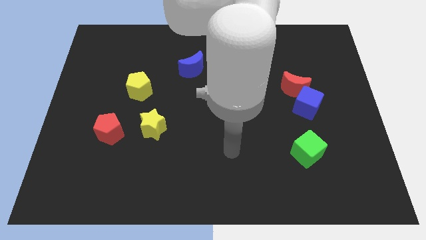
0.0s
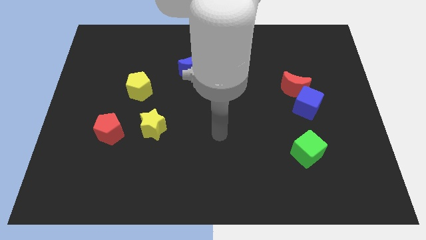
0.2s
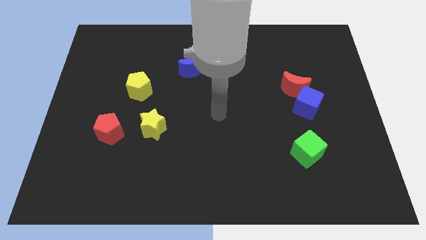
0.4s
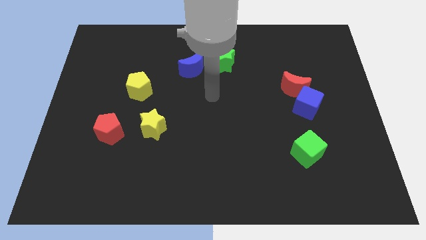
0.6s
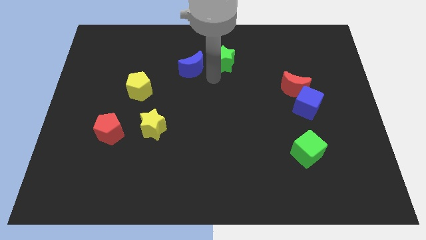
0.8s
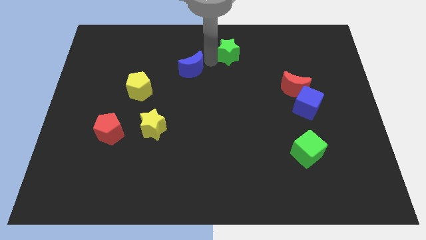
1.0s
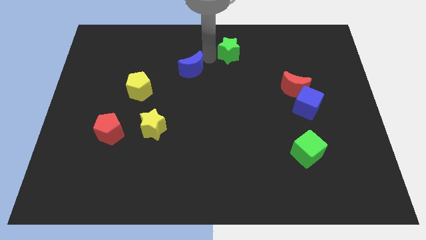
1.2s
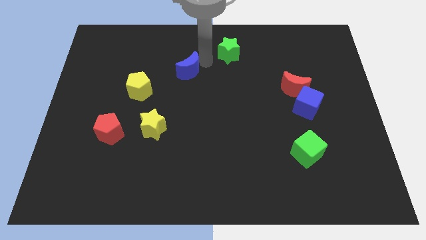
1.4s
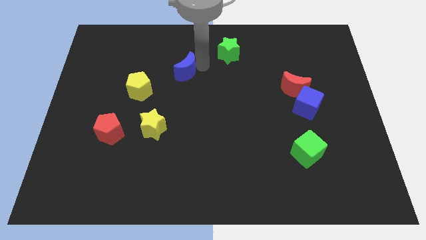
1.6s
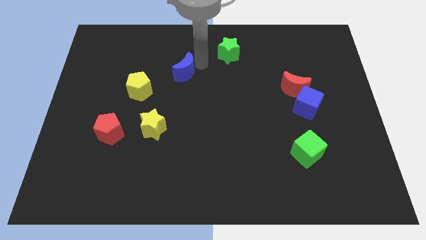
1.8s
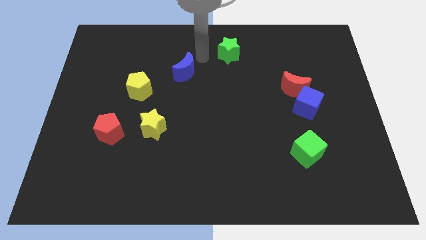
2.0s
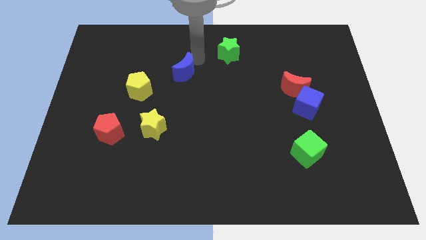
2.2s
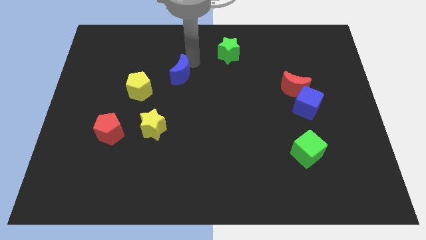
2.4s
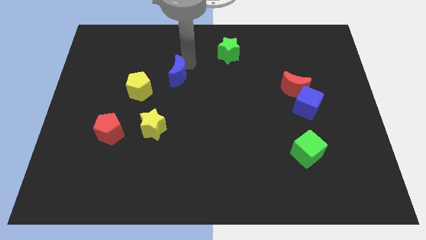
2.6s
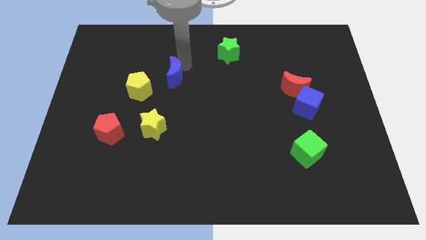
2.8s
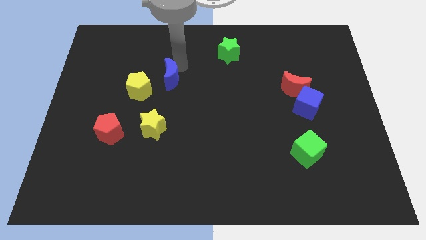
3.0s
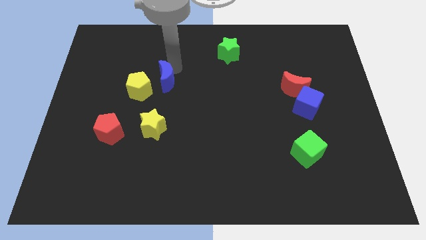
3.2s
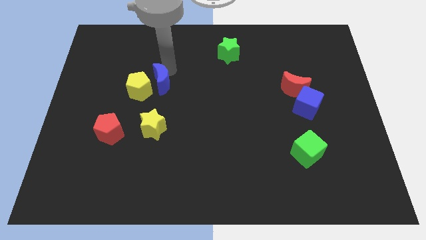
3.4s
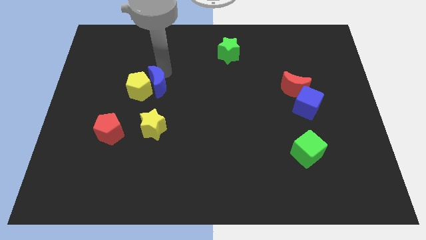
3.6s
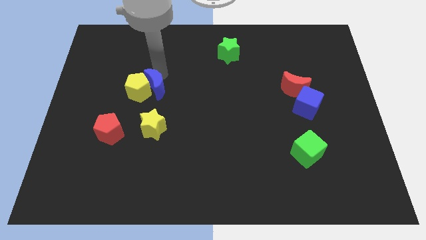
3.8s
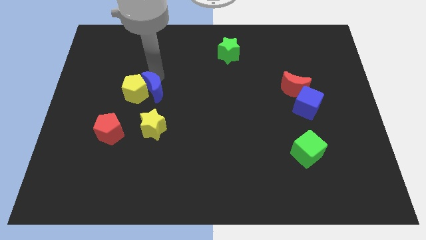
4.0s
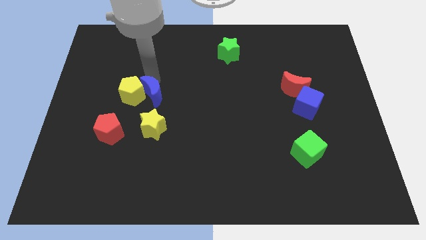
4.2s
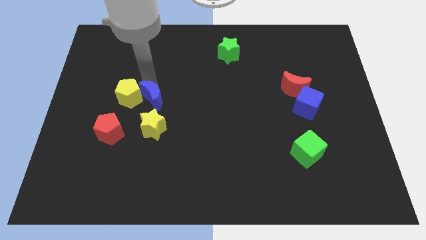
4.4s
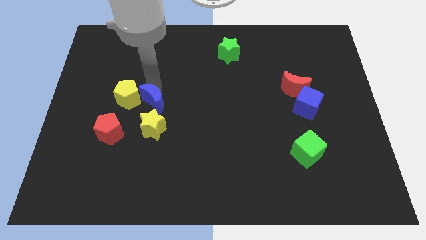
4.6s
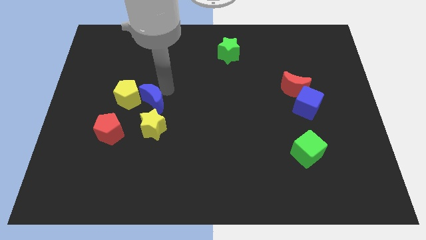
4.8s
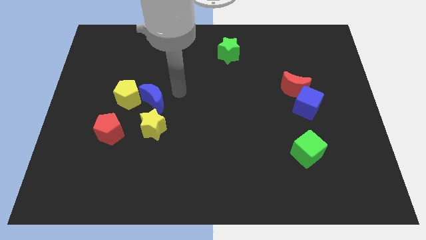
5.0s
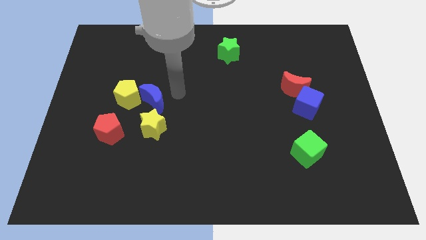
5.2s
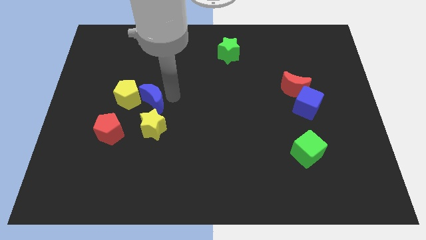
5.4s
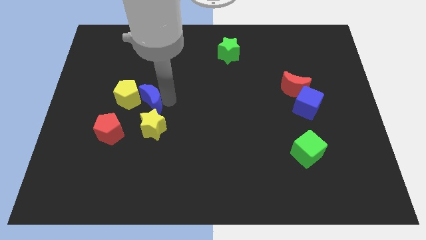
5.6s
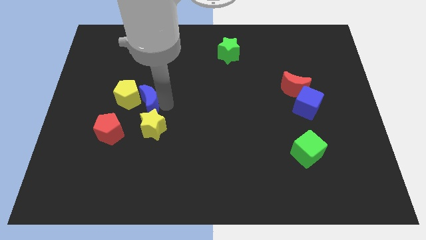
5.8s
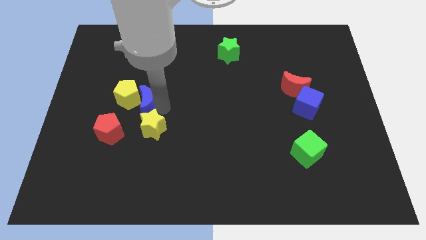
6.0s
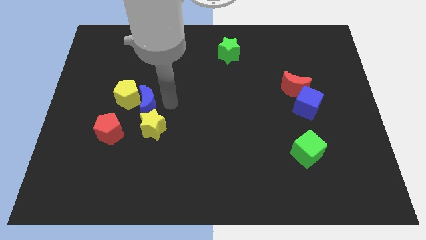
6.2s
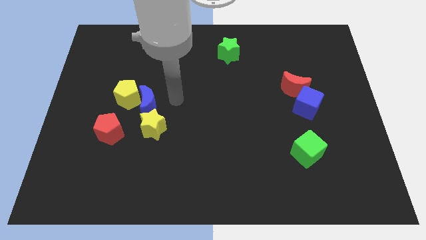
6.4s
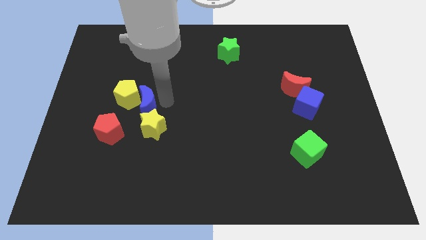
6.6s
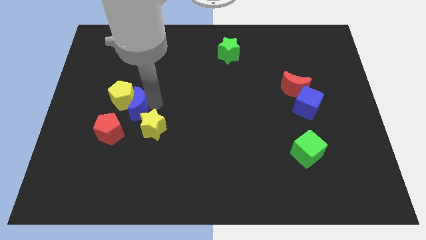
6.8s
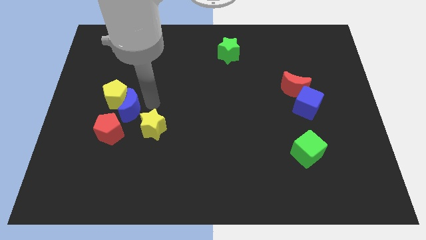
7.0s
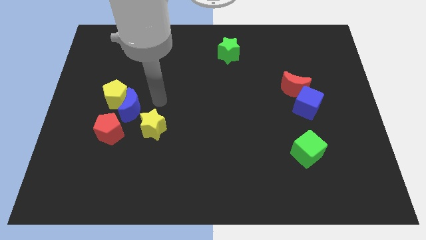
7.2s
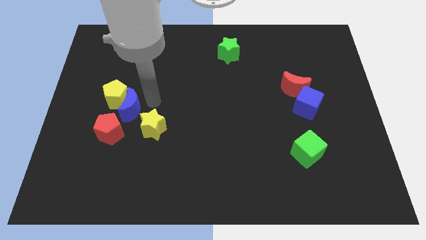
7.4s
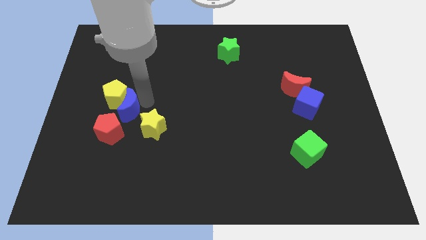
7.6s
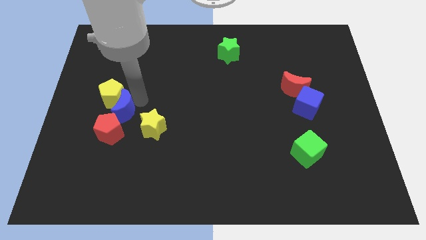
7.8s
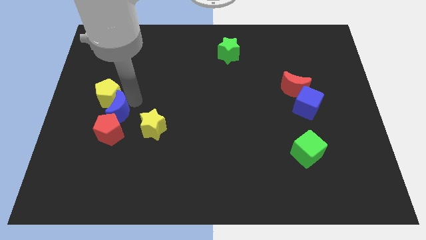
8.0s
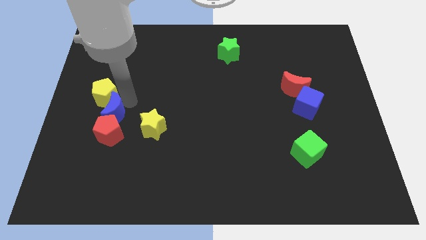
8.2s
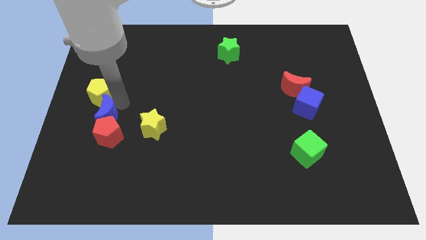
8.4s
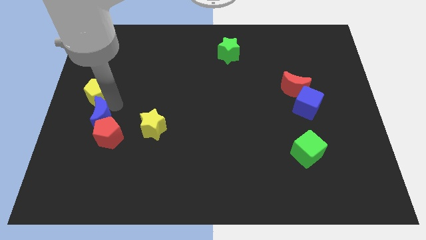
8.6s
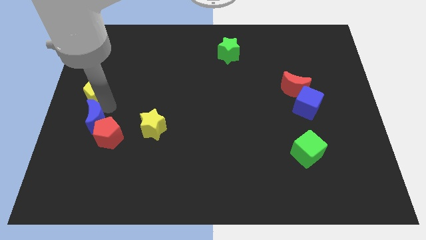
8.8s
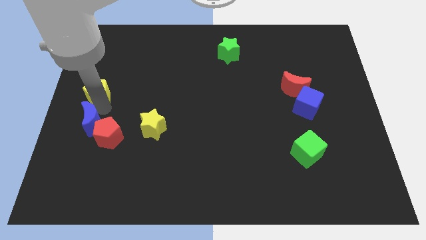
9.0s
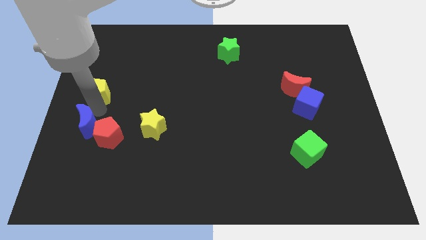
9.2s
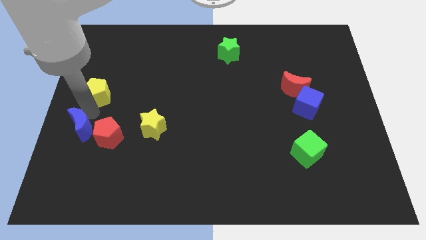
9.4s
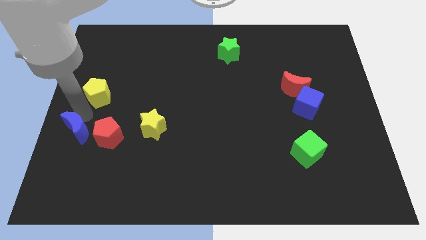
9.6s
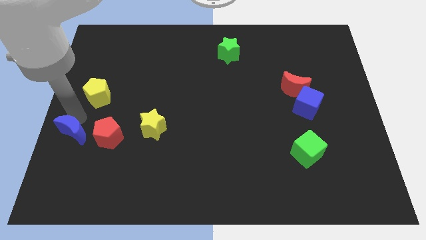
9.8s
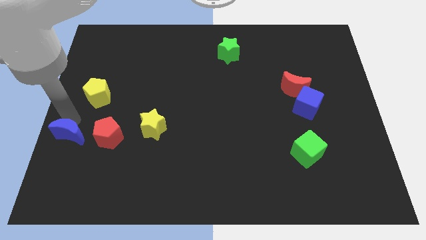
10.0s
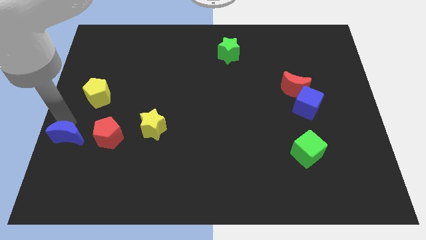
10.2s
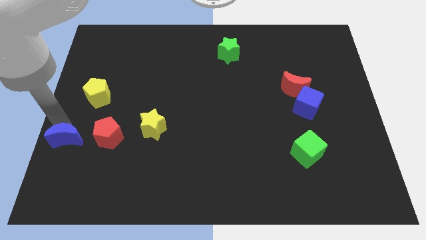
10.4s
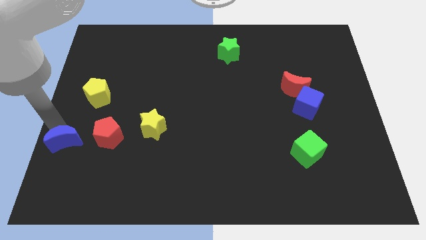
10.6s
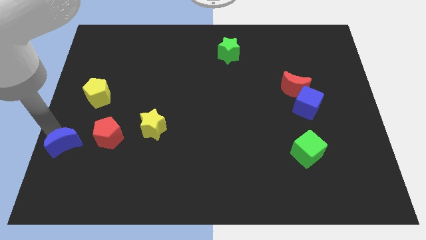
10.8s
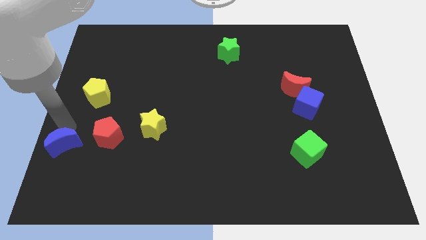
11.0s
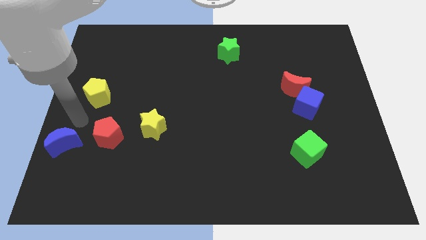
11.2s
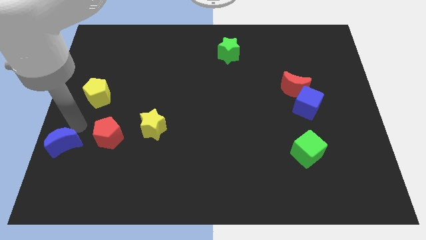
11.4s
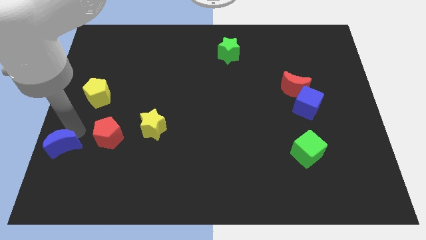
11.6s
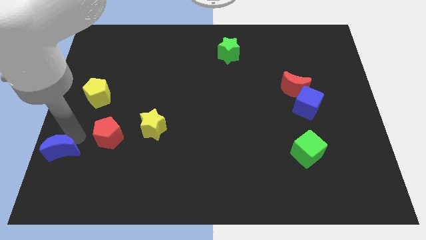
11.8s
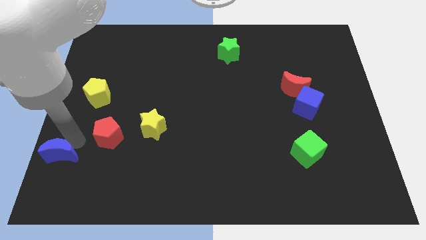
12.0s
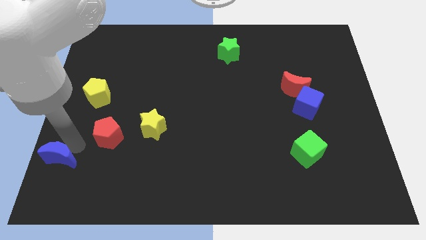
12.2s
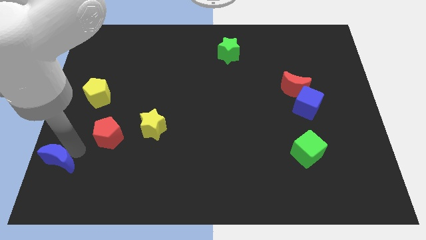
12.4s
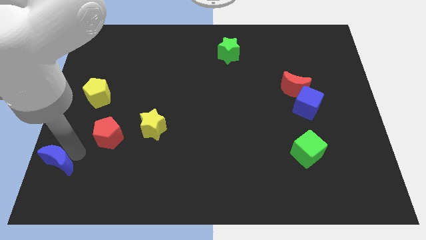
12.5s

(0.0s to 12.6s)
slide the blue moon to the bottom left of the board
